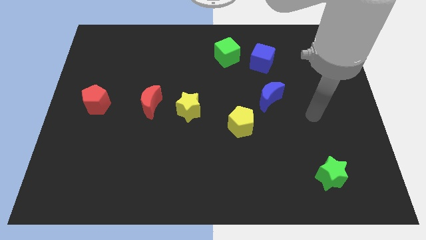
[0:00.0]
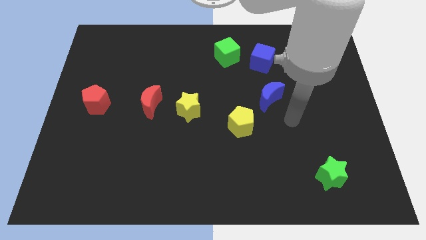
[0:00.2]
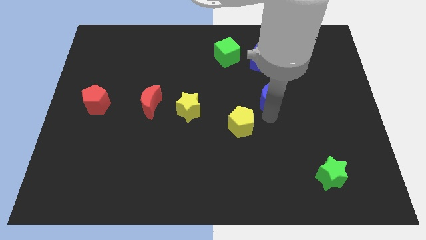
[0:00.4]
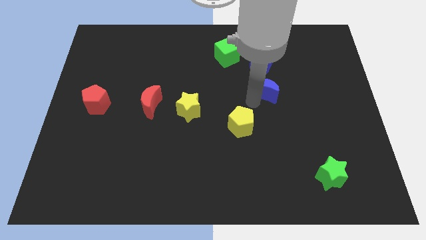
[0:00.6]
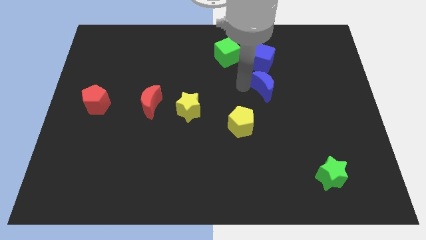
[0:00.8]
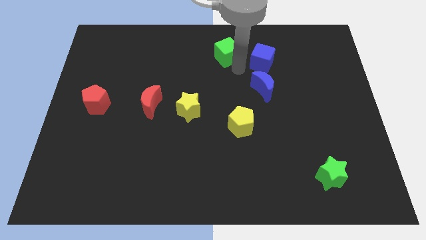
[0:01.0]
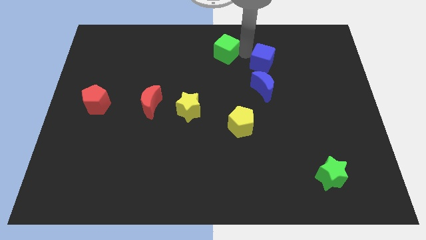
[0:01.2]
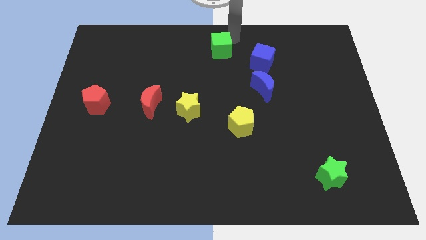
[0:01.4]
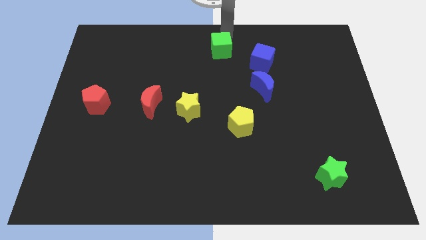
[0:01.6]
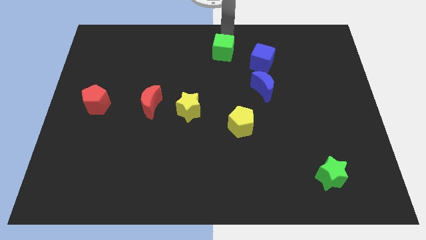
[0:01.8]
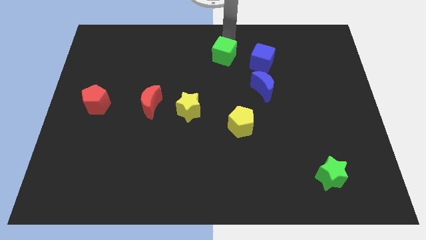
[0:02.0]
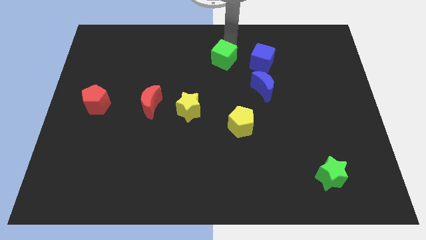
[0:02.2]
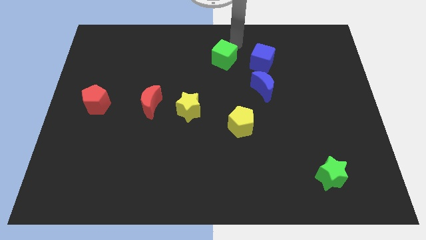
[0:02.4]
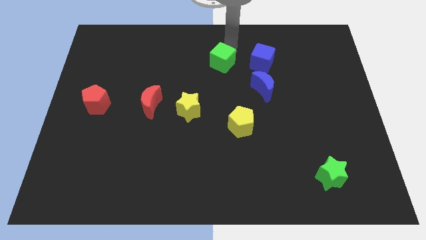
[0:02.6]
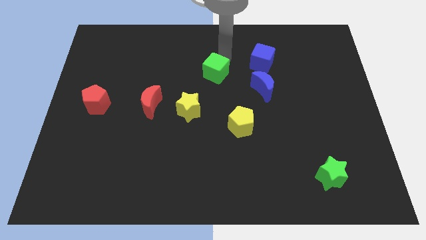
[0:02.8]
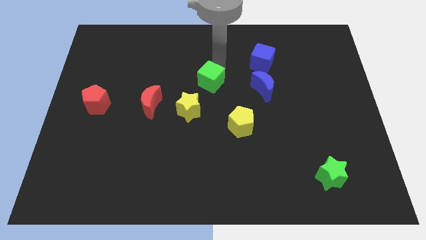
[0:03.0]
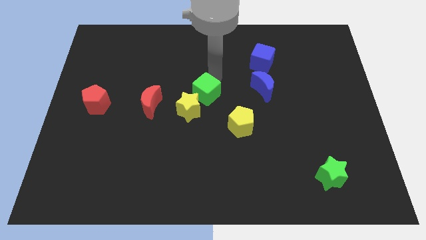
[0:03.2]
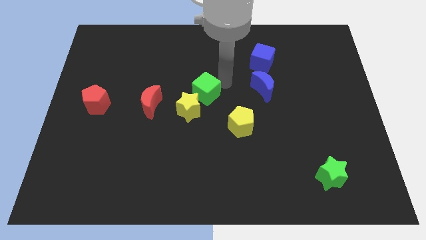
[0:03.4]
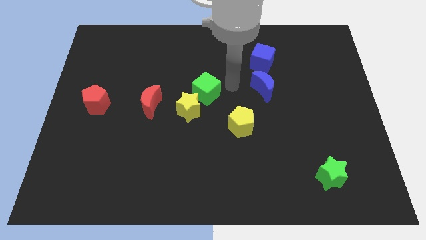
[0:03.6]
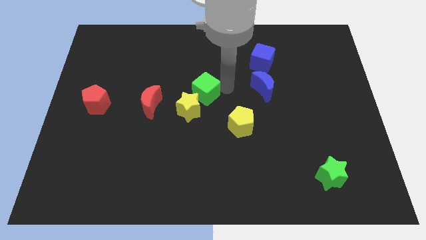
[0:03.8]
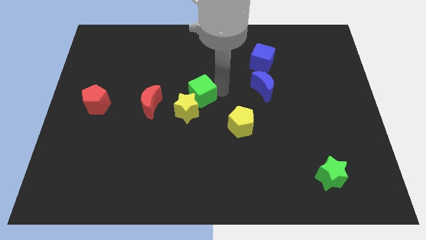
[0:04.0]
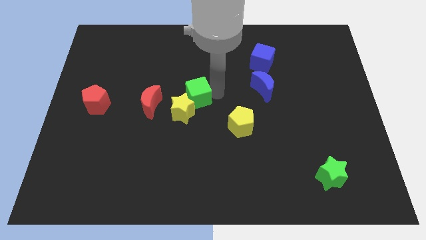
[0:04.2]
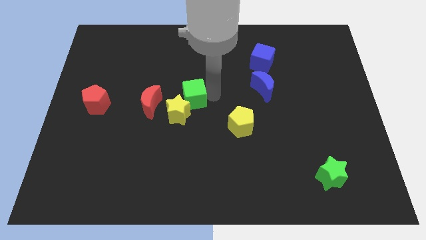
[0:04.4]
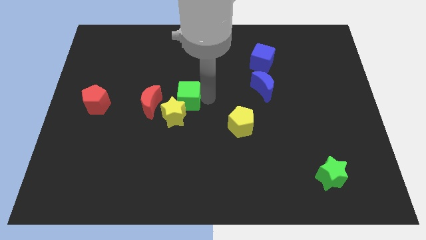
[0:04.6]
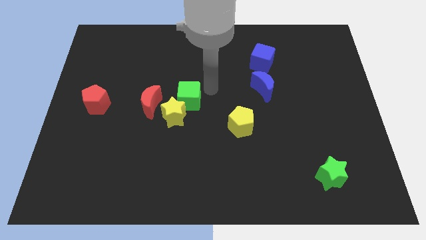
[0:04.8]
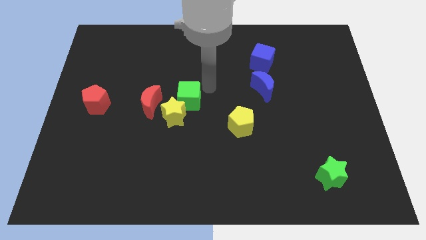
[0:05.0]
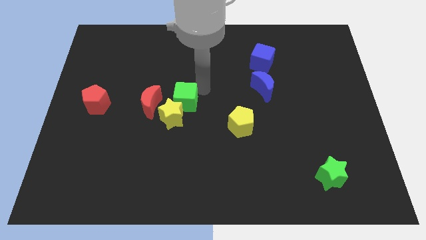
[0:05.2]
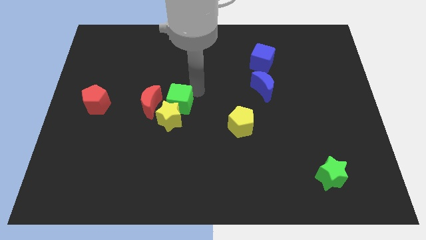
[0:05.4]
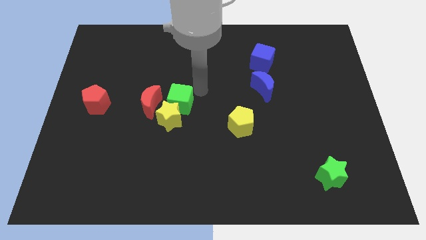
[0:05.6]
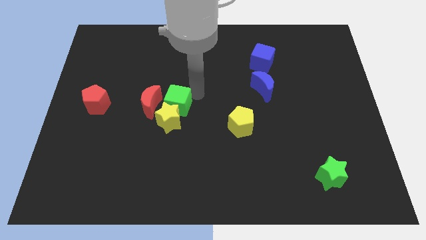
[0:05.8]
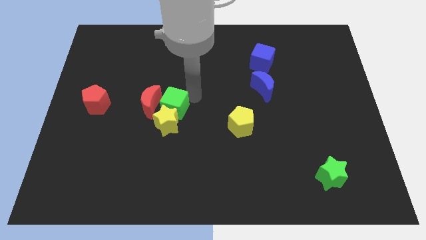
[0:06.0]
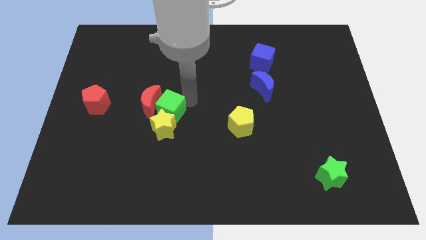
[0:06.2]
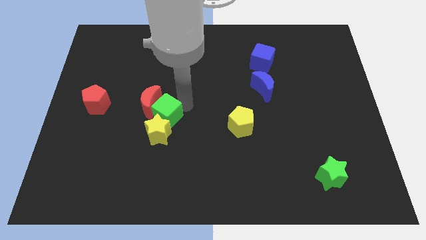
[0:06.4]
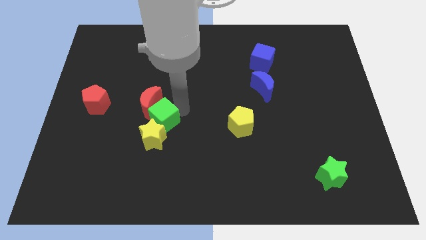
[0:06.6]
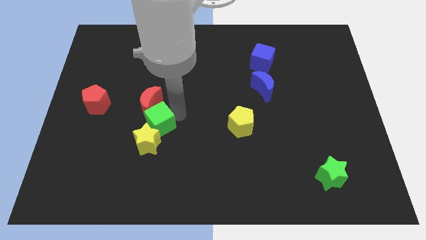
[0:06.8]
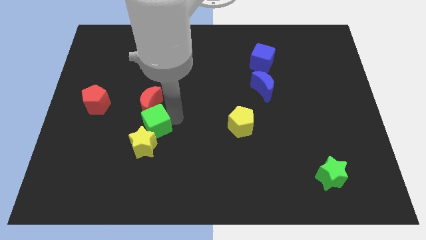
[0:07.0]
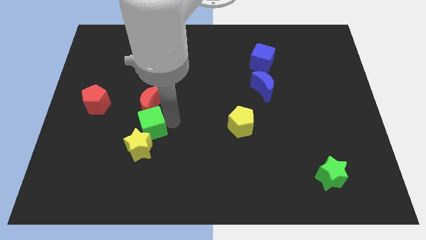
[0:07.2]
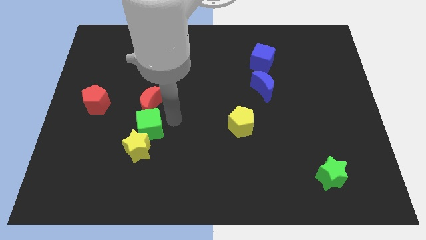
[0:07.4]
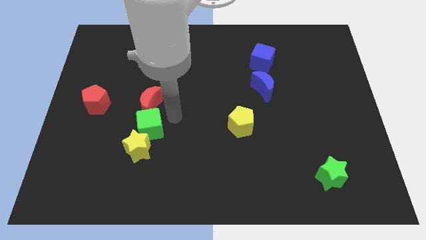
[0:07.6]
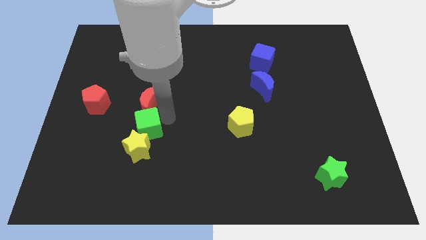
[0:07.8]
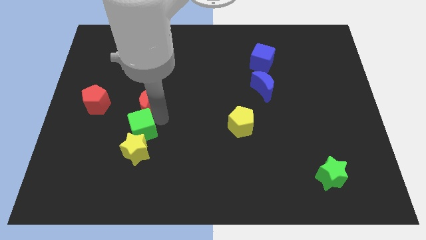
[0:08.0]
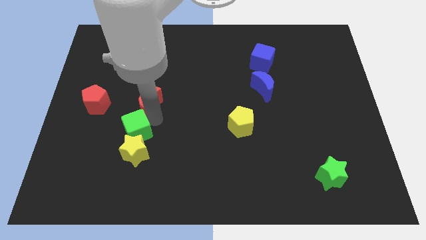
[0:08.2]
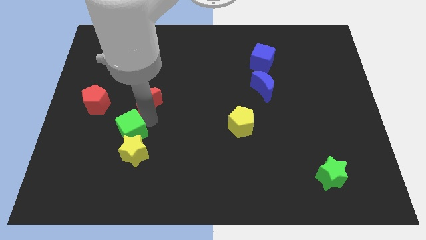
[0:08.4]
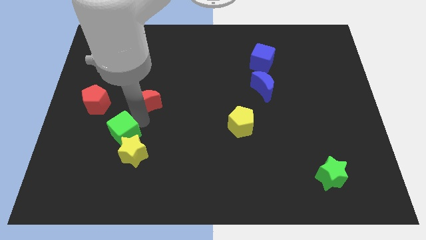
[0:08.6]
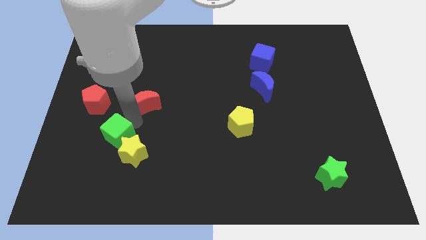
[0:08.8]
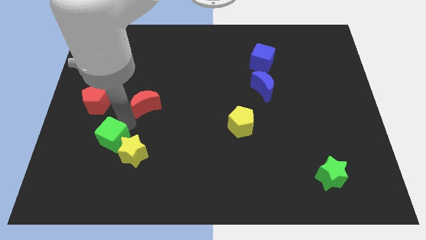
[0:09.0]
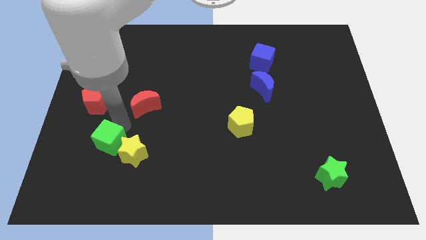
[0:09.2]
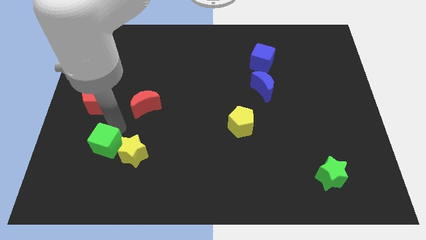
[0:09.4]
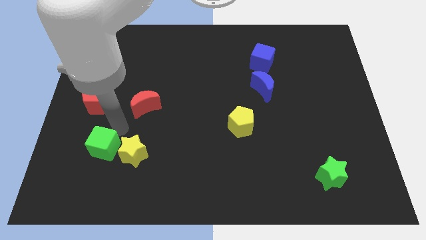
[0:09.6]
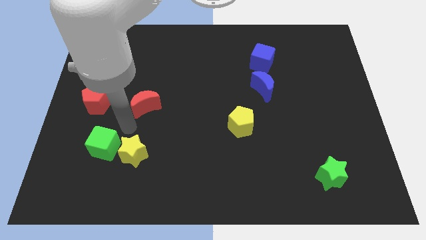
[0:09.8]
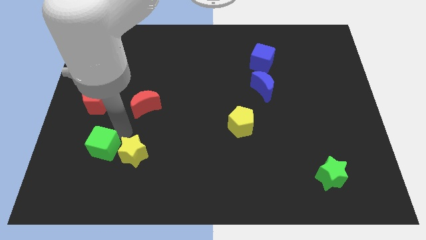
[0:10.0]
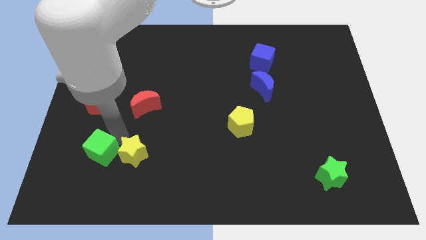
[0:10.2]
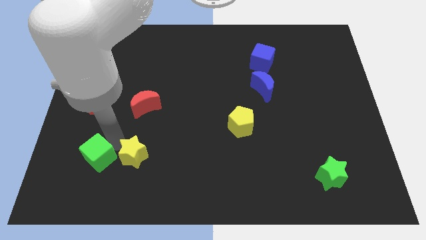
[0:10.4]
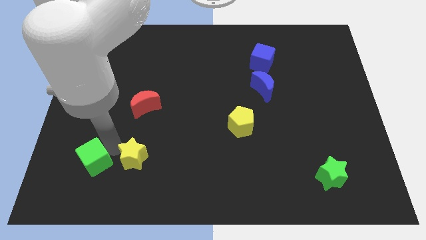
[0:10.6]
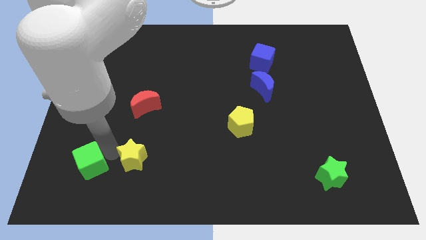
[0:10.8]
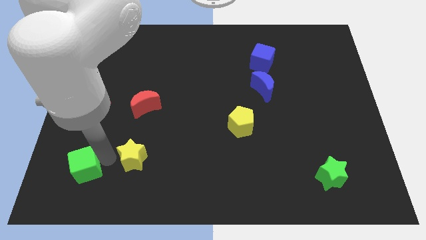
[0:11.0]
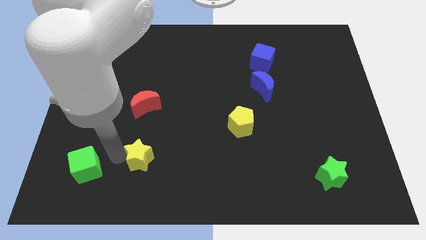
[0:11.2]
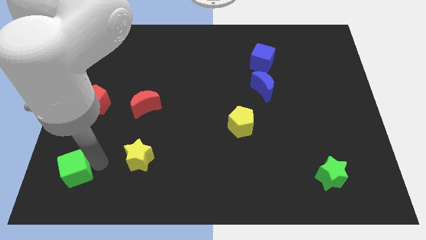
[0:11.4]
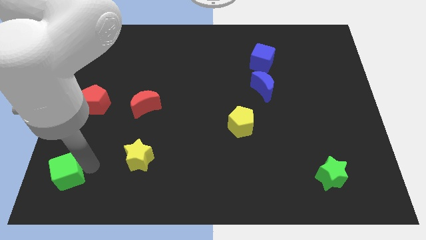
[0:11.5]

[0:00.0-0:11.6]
move the green cube to the bottom left of the board
